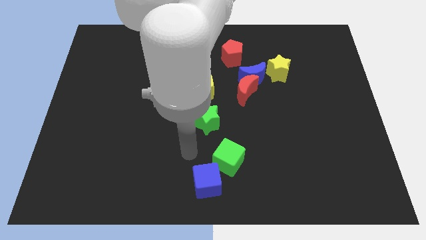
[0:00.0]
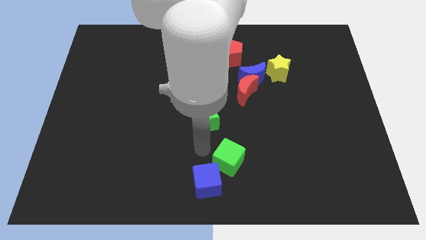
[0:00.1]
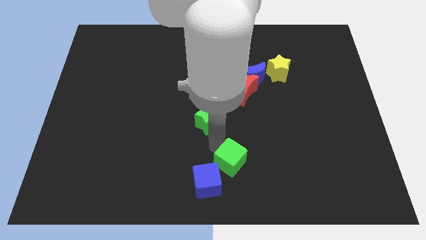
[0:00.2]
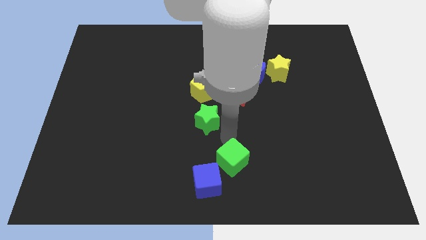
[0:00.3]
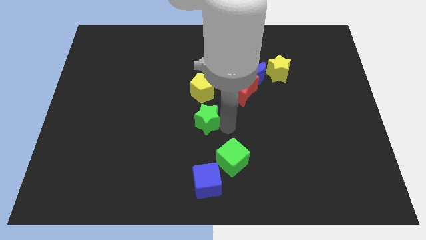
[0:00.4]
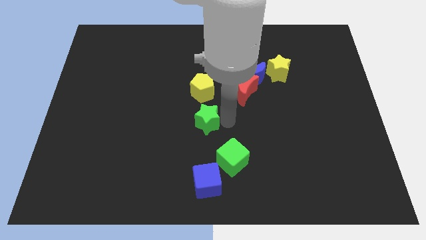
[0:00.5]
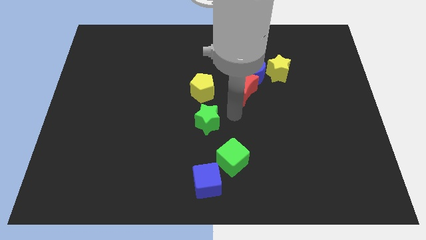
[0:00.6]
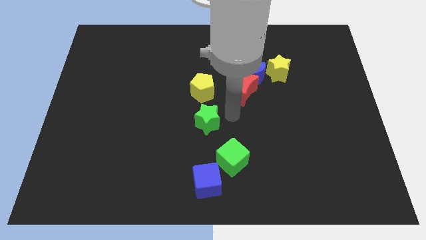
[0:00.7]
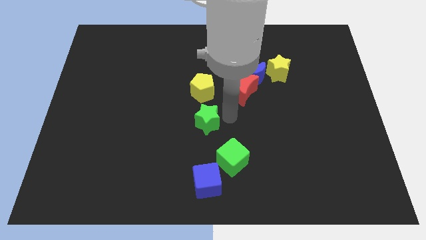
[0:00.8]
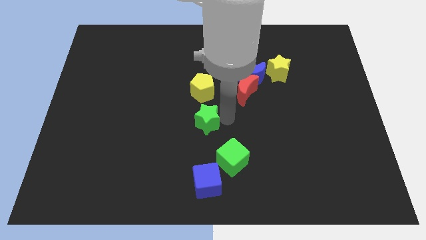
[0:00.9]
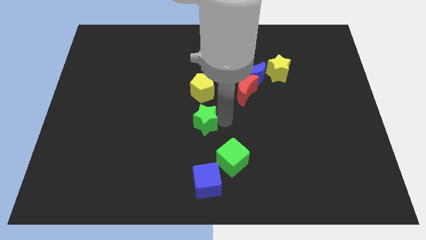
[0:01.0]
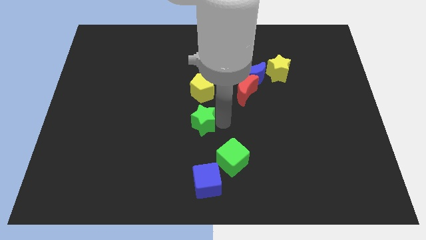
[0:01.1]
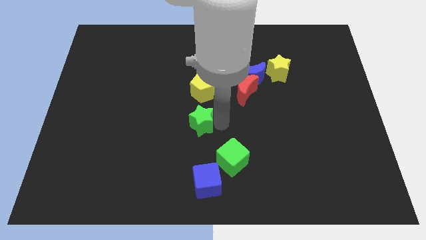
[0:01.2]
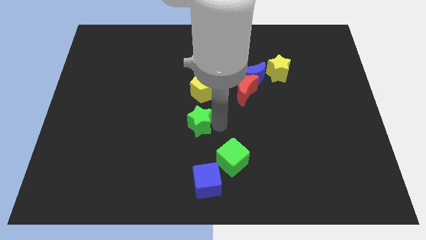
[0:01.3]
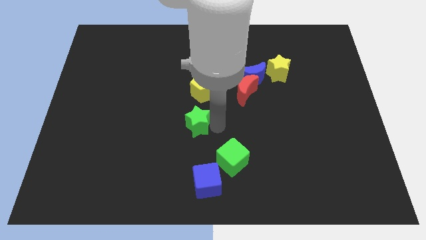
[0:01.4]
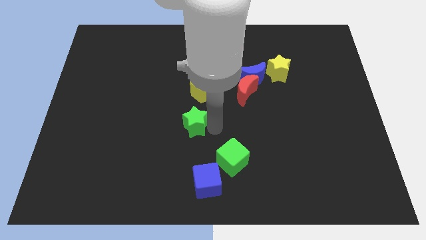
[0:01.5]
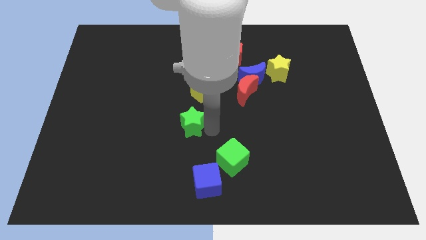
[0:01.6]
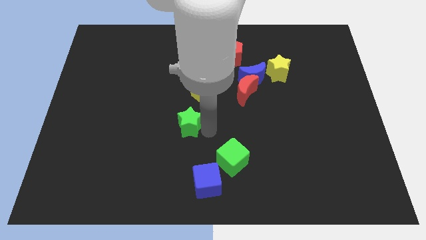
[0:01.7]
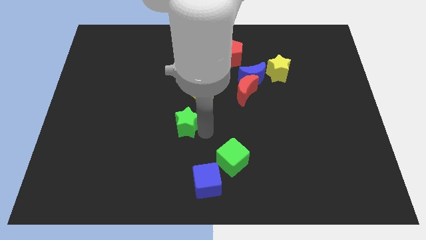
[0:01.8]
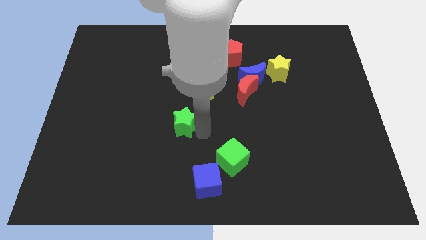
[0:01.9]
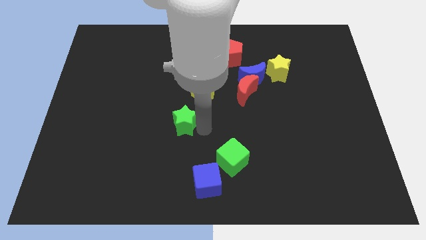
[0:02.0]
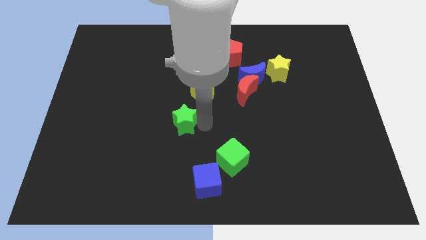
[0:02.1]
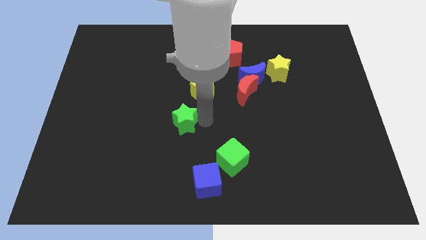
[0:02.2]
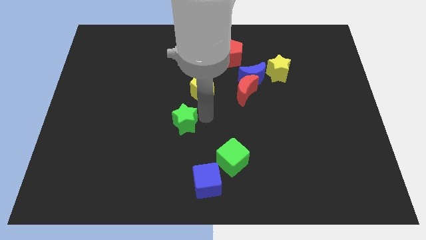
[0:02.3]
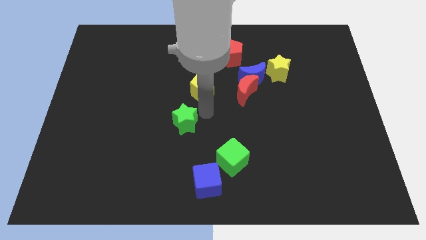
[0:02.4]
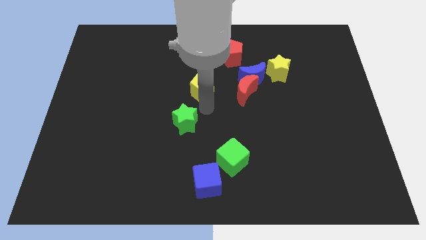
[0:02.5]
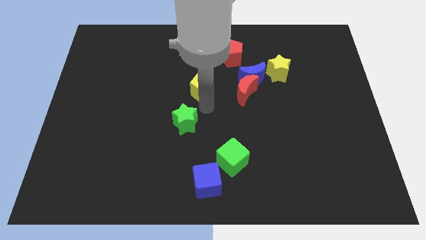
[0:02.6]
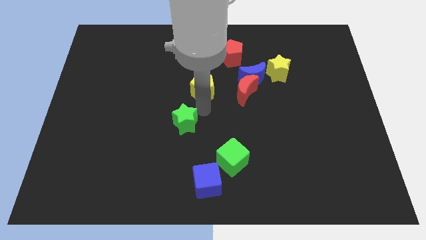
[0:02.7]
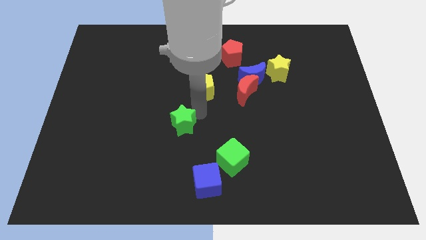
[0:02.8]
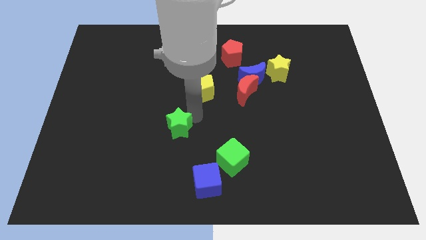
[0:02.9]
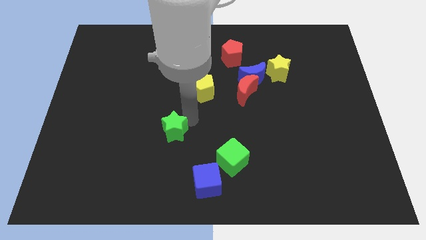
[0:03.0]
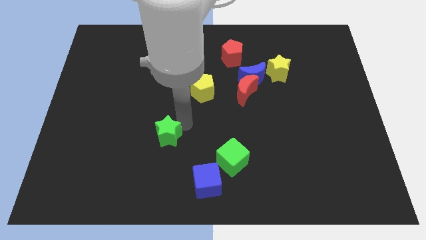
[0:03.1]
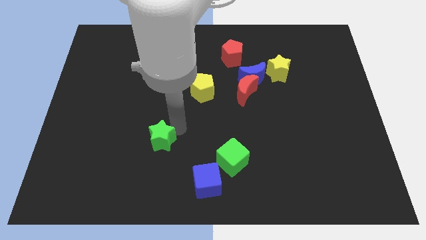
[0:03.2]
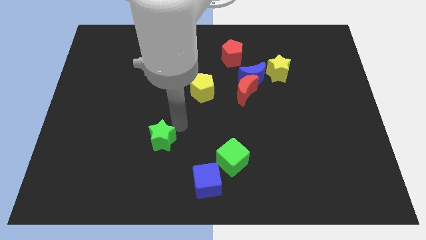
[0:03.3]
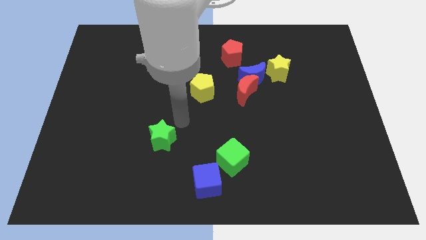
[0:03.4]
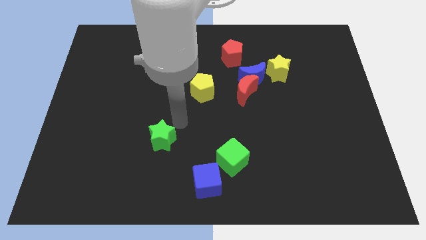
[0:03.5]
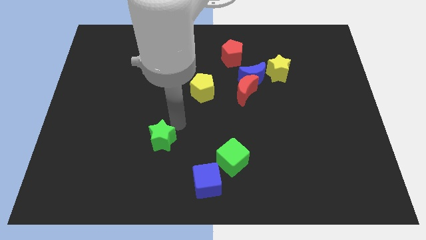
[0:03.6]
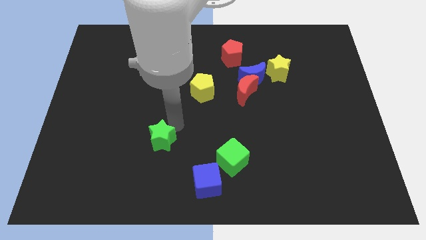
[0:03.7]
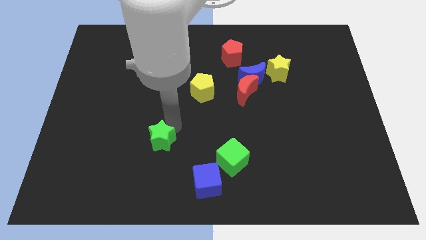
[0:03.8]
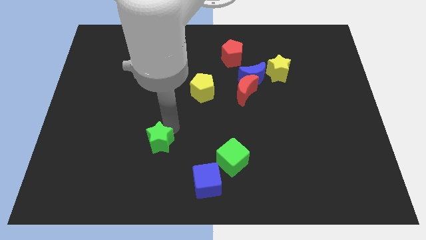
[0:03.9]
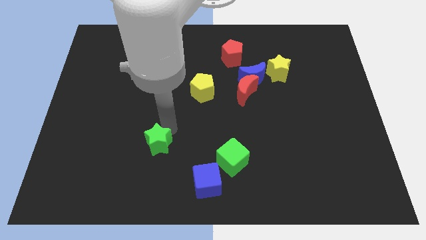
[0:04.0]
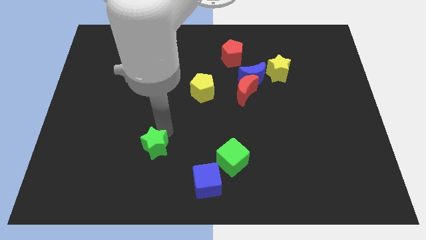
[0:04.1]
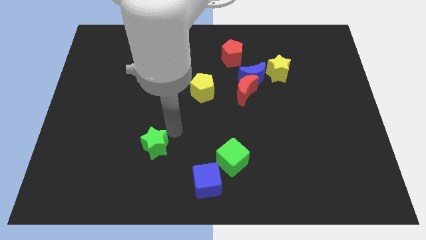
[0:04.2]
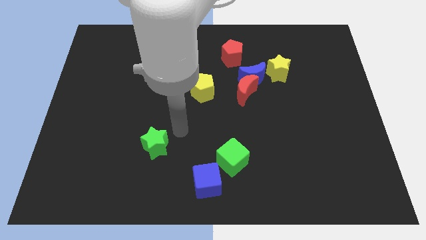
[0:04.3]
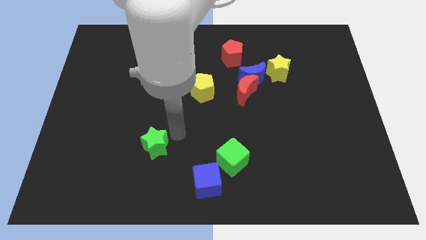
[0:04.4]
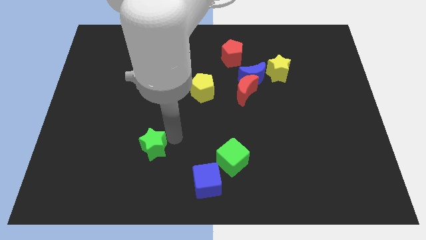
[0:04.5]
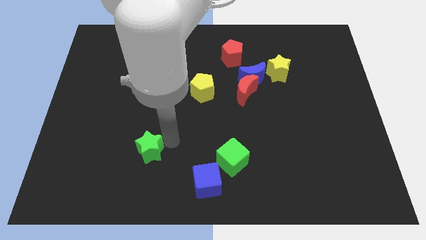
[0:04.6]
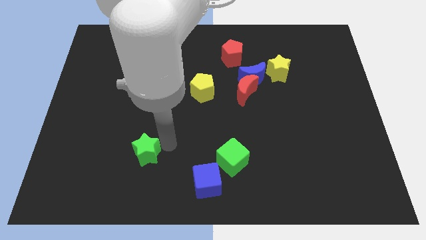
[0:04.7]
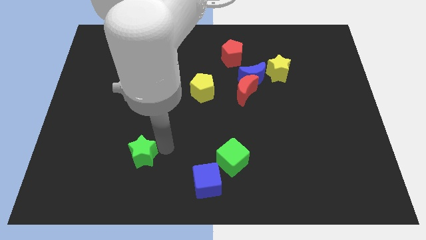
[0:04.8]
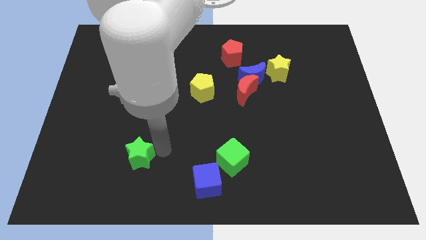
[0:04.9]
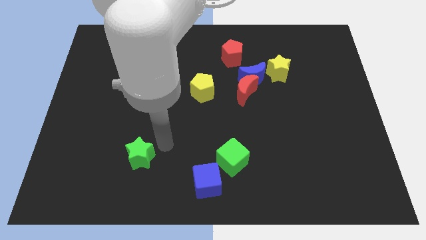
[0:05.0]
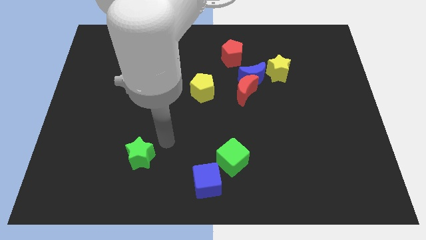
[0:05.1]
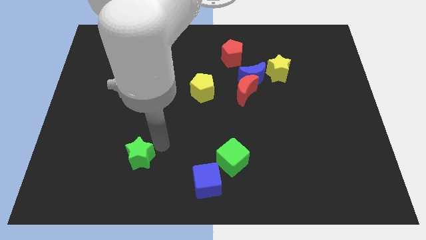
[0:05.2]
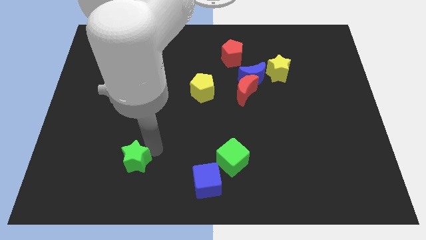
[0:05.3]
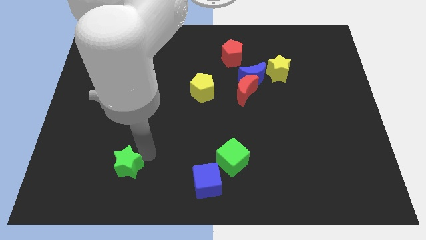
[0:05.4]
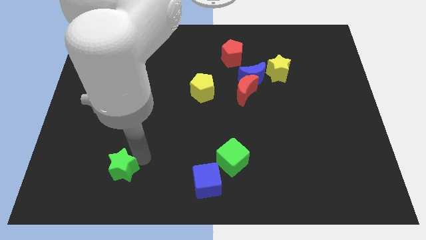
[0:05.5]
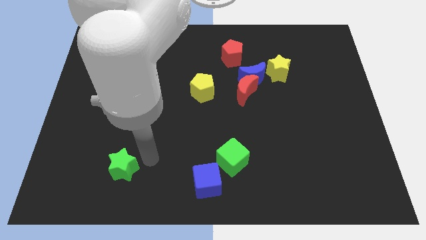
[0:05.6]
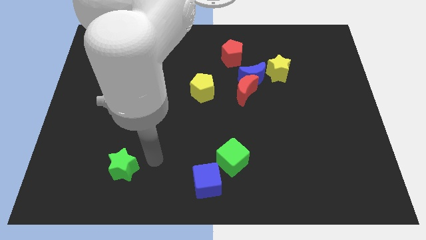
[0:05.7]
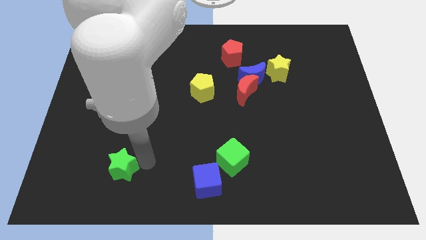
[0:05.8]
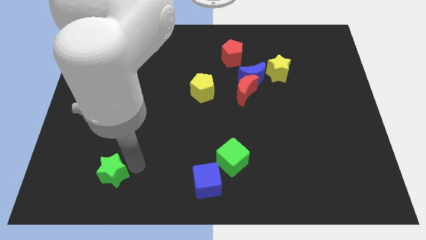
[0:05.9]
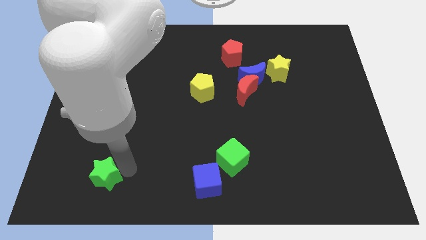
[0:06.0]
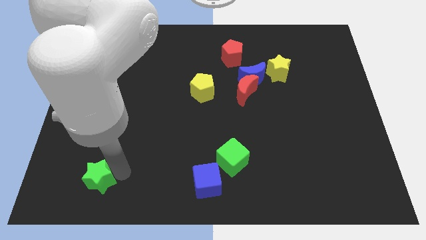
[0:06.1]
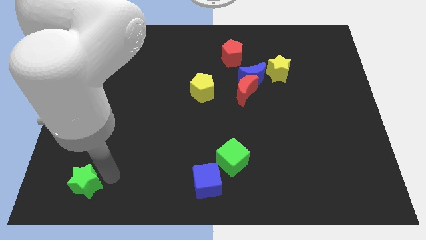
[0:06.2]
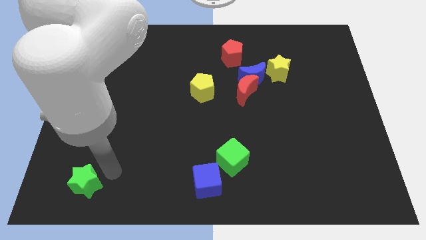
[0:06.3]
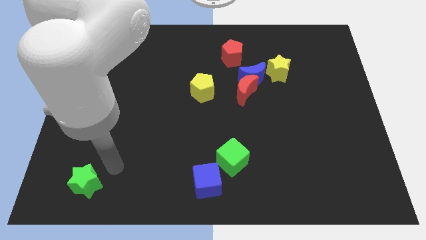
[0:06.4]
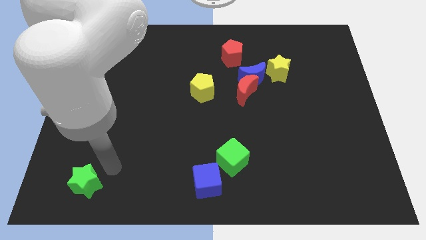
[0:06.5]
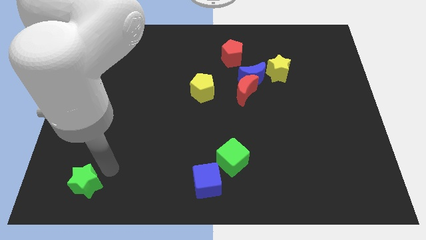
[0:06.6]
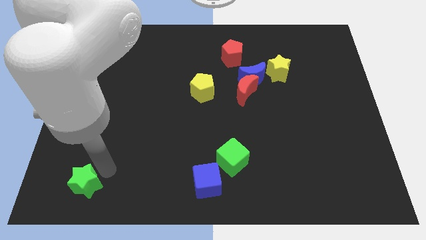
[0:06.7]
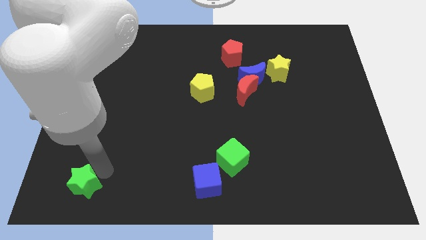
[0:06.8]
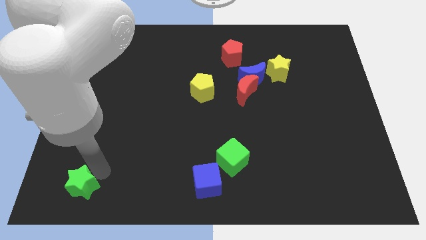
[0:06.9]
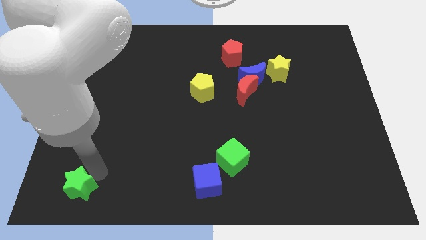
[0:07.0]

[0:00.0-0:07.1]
move the green star to the bottom left corner
